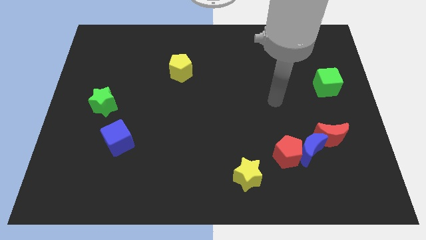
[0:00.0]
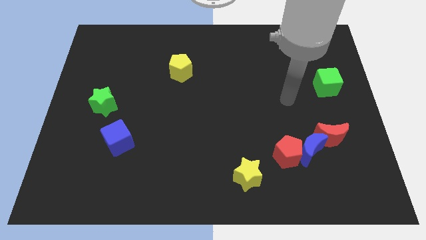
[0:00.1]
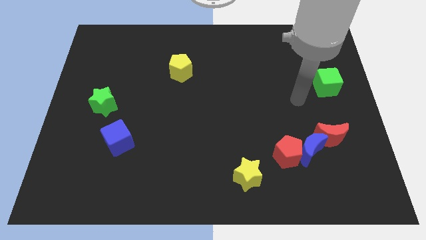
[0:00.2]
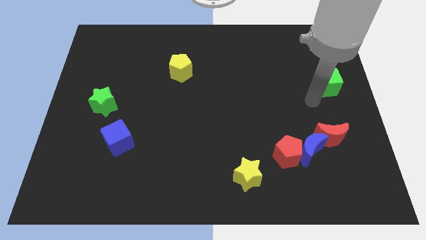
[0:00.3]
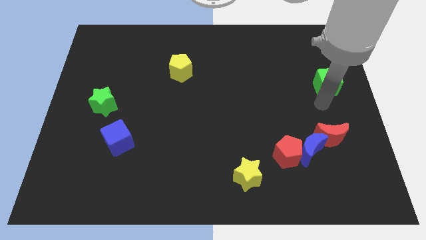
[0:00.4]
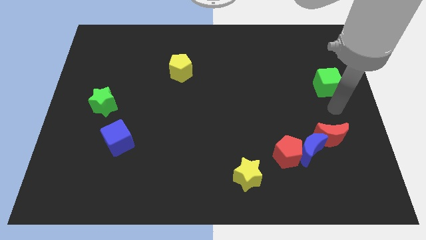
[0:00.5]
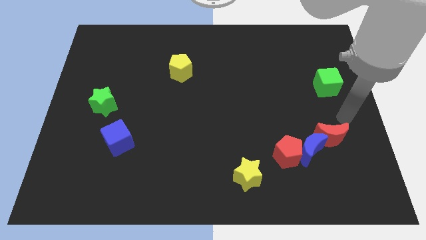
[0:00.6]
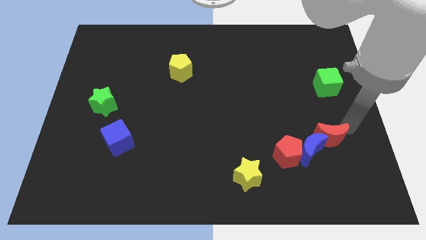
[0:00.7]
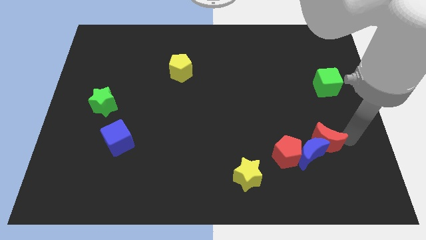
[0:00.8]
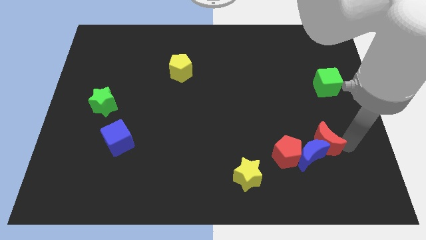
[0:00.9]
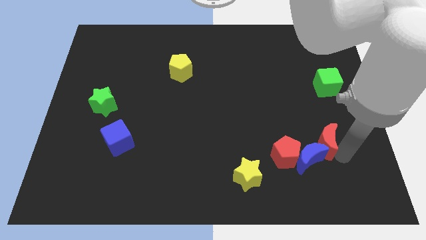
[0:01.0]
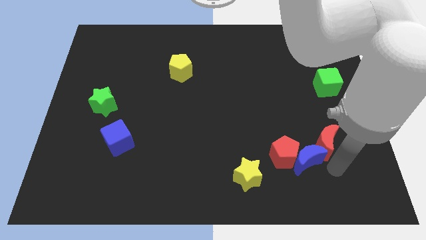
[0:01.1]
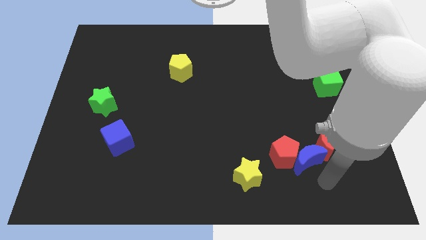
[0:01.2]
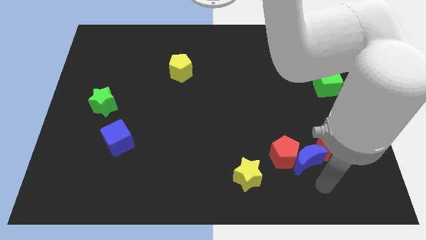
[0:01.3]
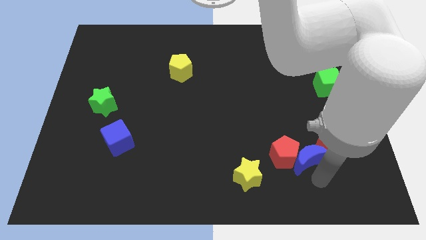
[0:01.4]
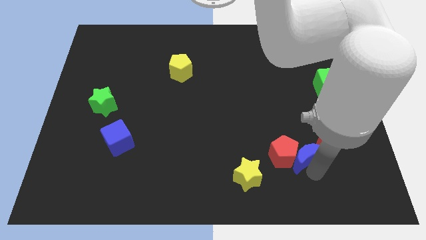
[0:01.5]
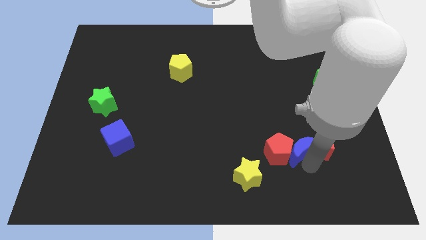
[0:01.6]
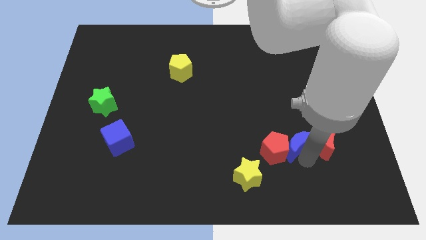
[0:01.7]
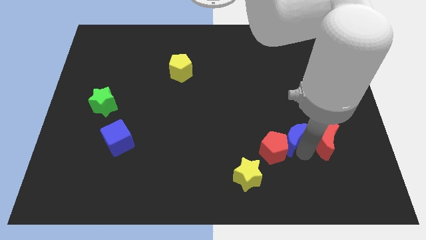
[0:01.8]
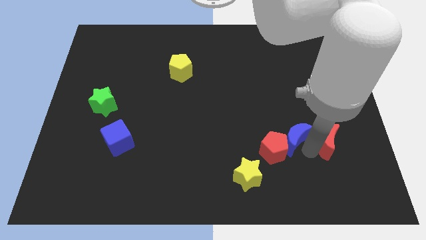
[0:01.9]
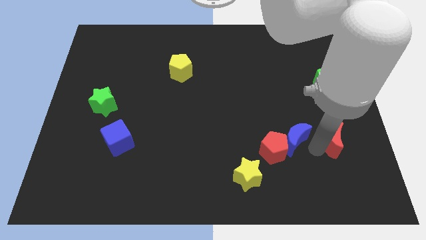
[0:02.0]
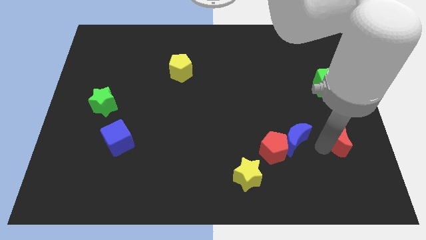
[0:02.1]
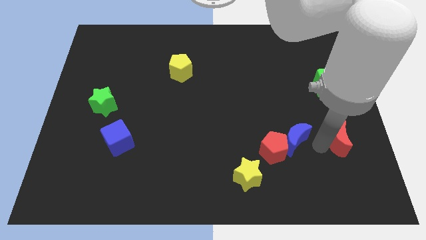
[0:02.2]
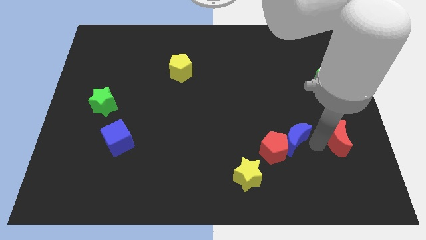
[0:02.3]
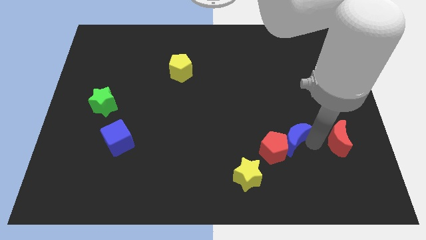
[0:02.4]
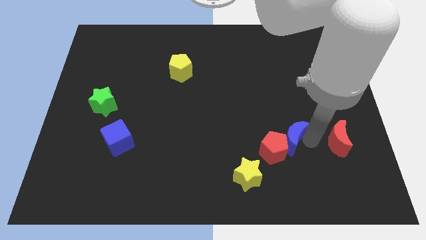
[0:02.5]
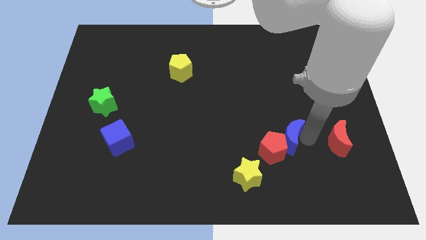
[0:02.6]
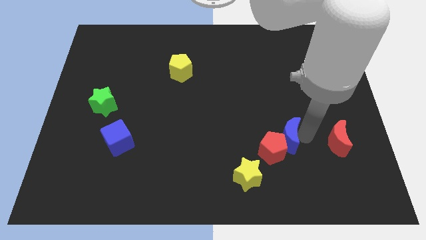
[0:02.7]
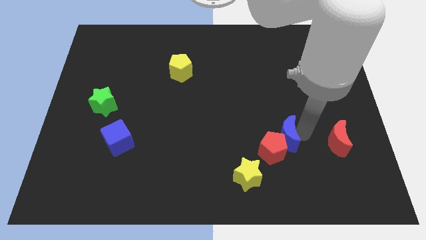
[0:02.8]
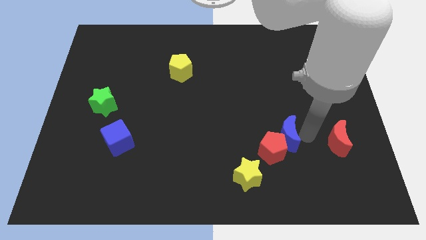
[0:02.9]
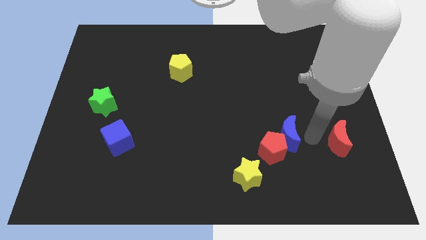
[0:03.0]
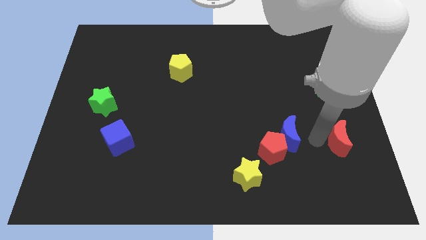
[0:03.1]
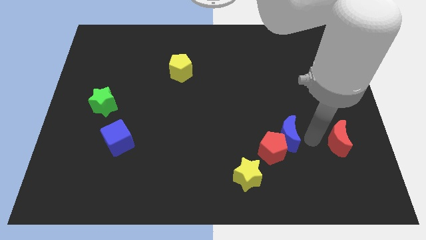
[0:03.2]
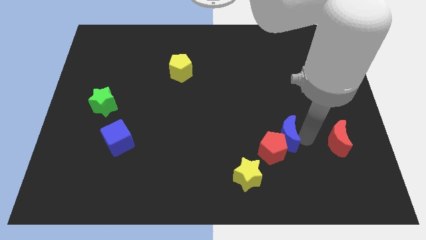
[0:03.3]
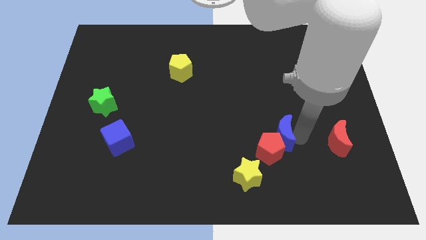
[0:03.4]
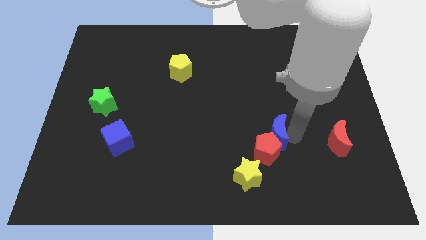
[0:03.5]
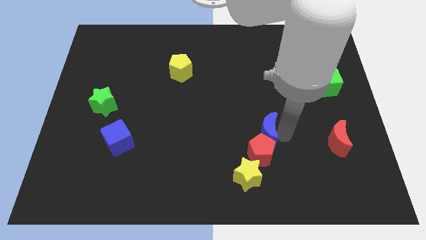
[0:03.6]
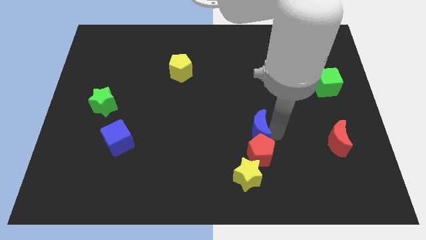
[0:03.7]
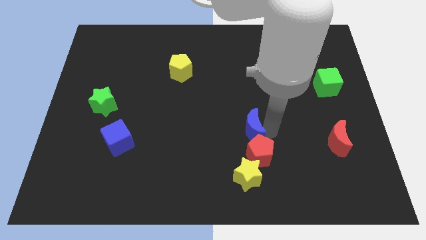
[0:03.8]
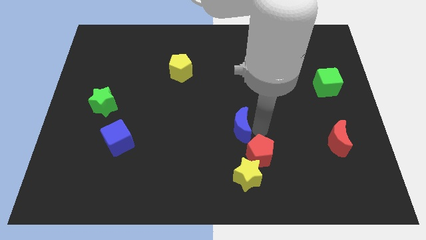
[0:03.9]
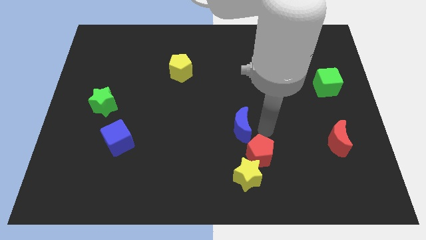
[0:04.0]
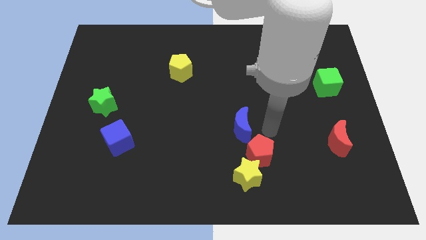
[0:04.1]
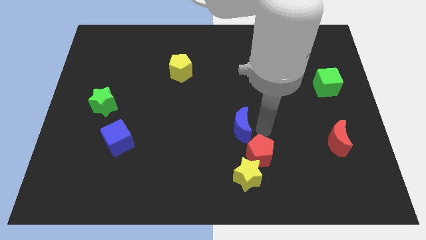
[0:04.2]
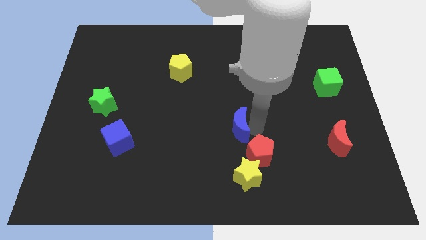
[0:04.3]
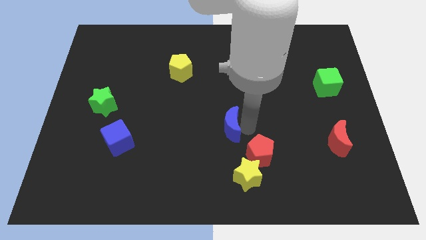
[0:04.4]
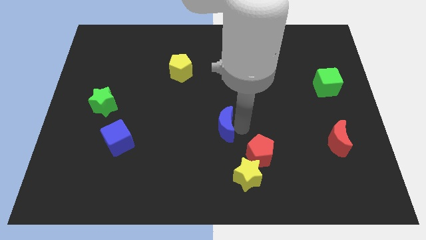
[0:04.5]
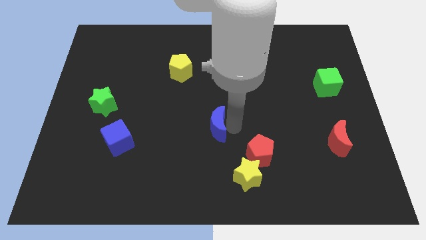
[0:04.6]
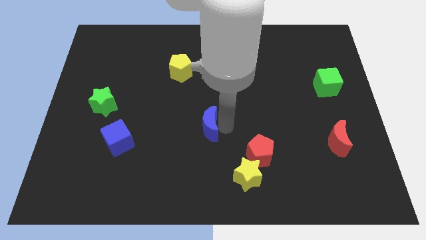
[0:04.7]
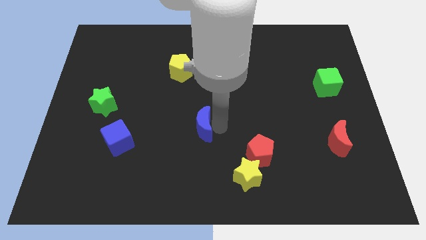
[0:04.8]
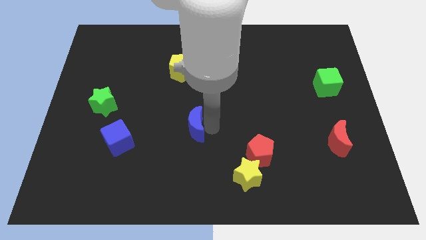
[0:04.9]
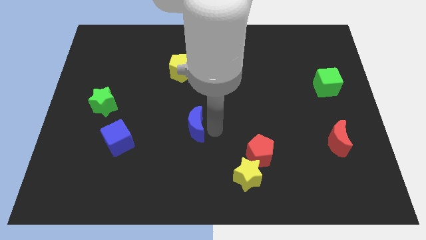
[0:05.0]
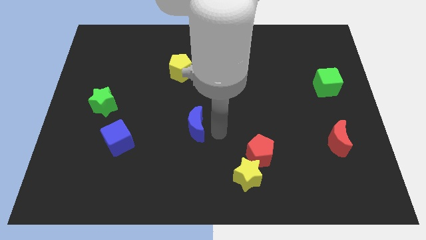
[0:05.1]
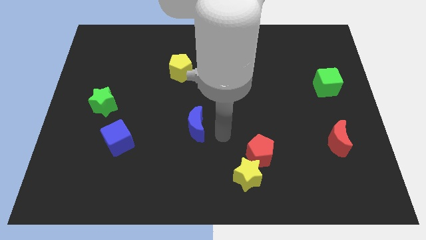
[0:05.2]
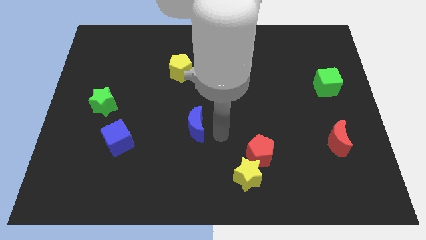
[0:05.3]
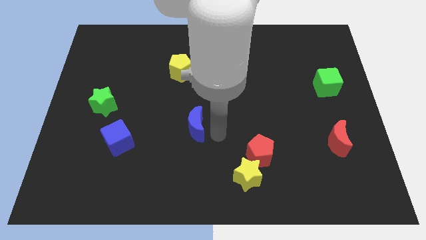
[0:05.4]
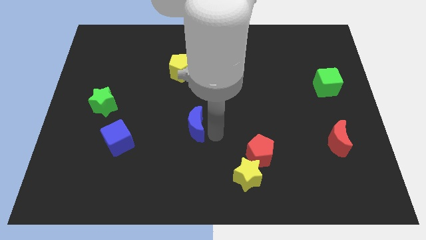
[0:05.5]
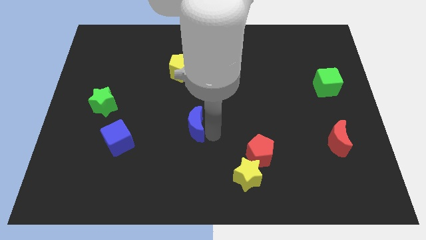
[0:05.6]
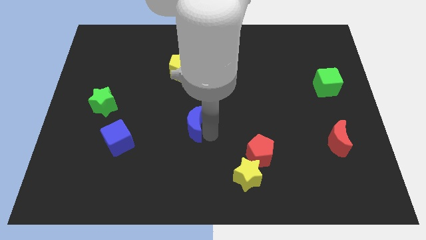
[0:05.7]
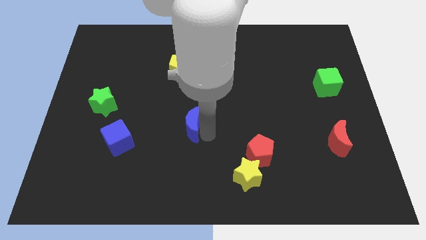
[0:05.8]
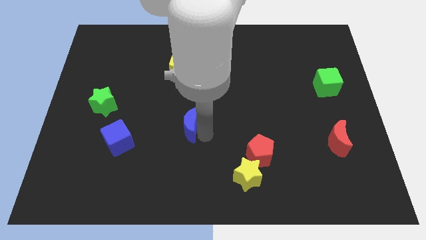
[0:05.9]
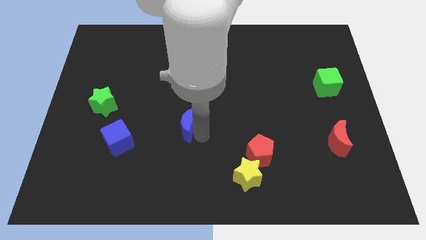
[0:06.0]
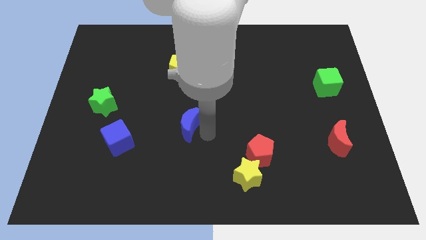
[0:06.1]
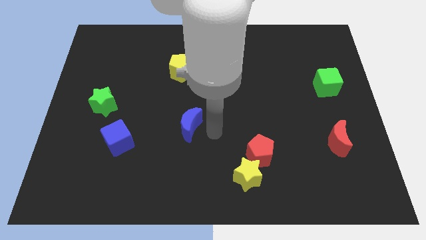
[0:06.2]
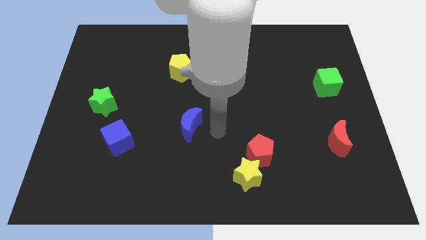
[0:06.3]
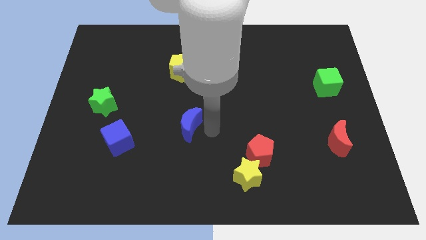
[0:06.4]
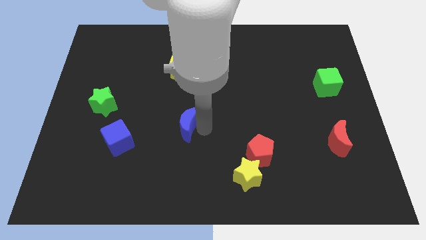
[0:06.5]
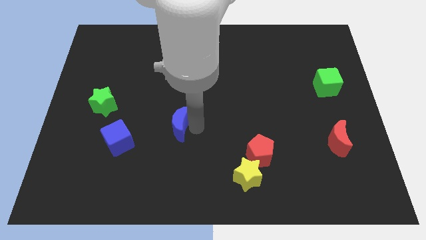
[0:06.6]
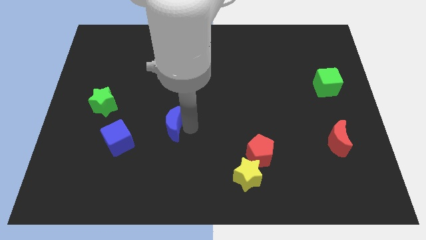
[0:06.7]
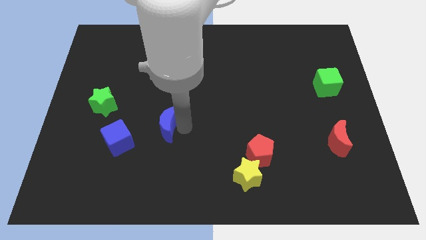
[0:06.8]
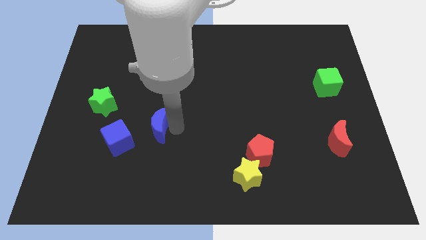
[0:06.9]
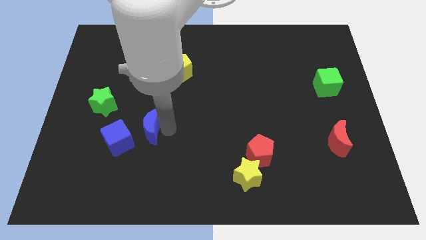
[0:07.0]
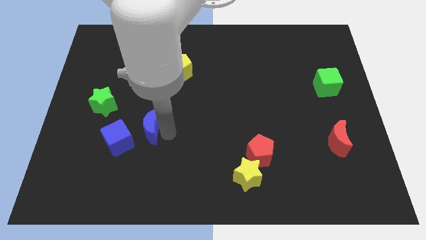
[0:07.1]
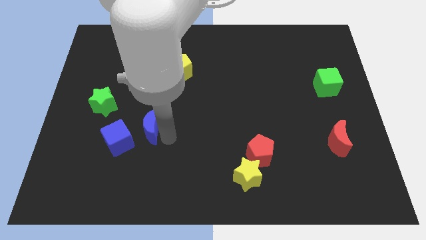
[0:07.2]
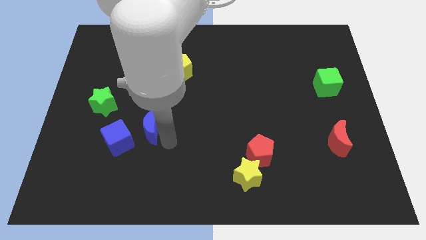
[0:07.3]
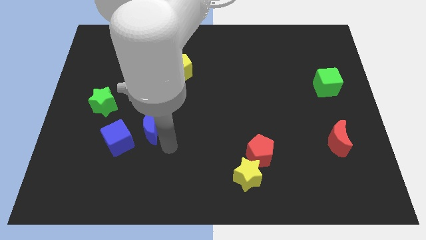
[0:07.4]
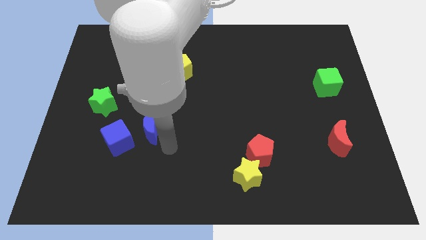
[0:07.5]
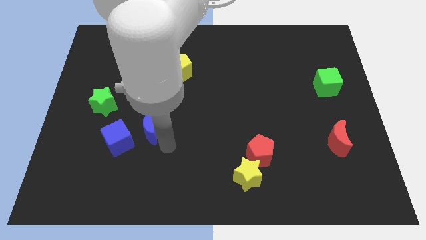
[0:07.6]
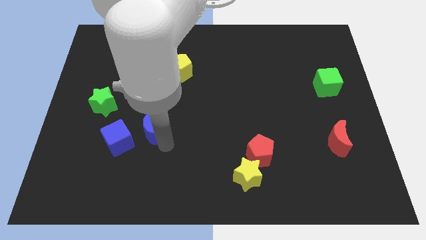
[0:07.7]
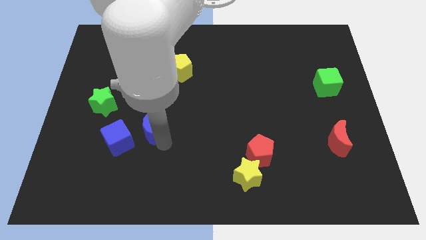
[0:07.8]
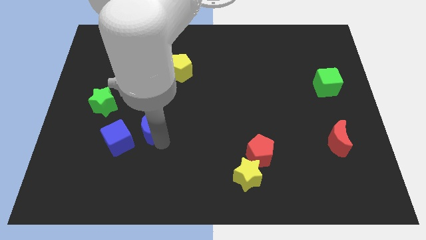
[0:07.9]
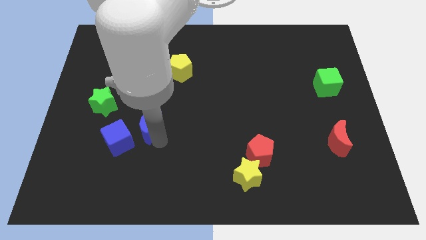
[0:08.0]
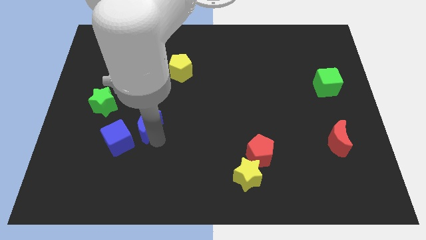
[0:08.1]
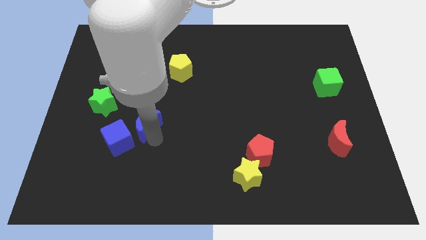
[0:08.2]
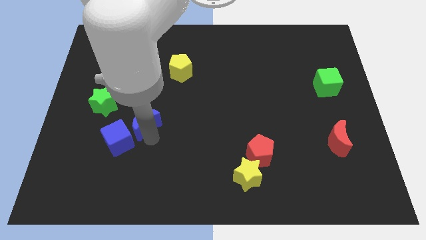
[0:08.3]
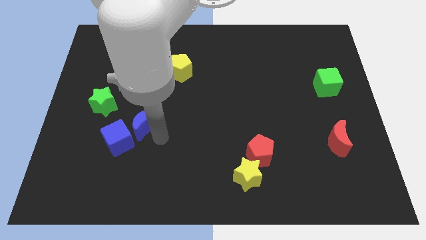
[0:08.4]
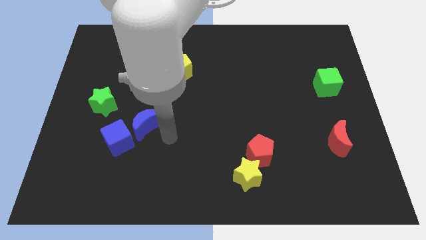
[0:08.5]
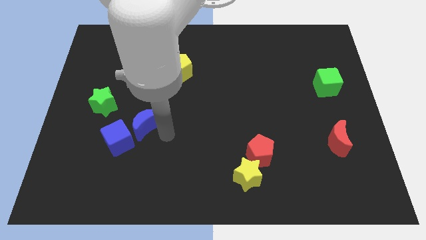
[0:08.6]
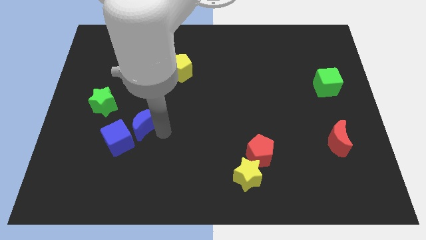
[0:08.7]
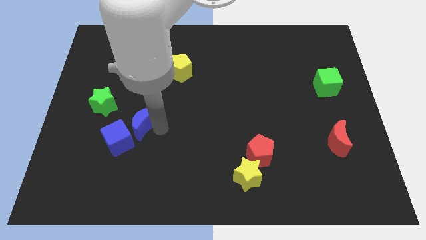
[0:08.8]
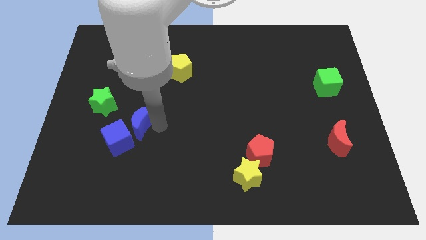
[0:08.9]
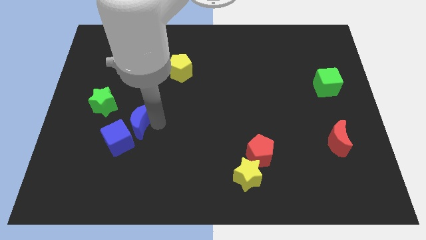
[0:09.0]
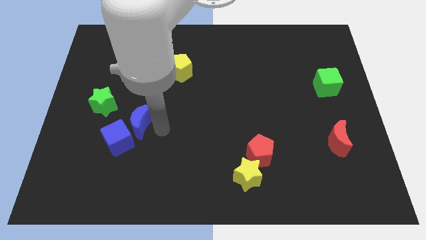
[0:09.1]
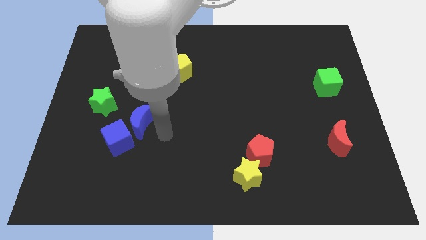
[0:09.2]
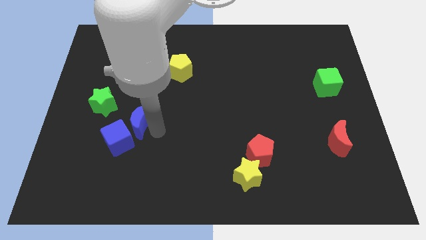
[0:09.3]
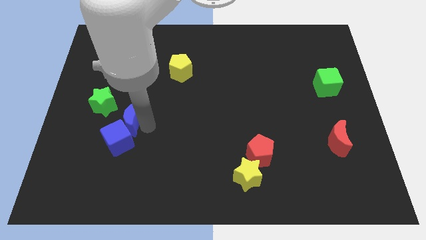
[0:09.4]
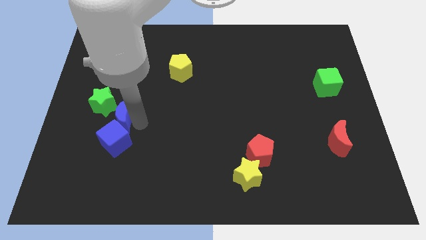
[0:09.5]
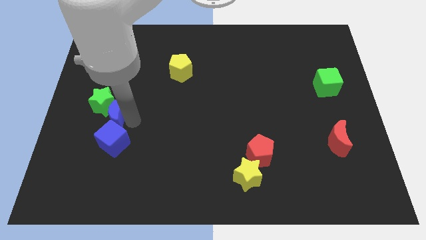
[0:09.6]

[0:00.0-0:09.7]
put the blue moon next to the green star
